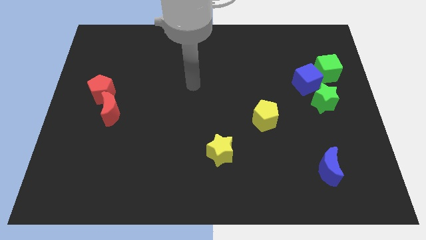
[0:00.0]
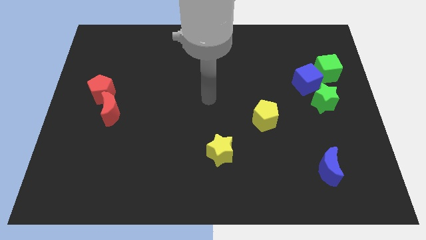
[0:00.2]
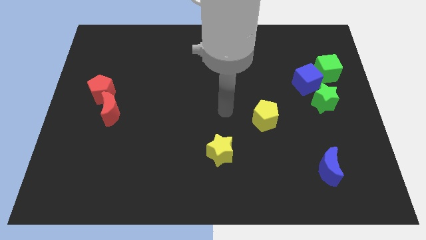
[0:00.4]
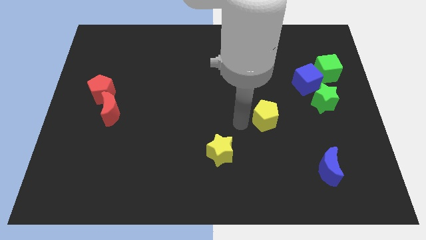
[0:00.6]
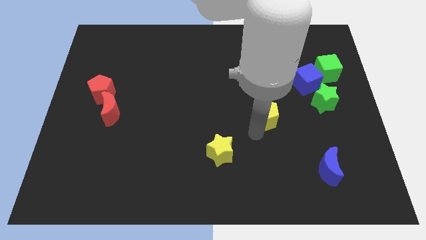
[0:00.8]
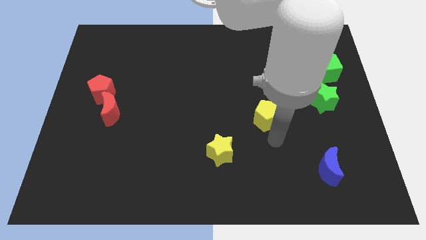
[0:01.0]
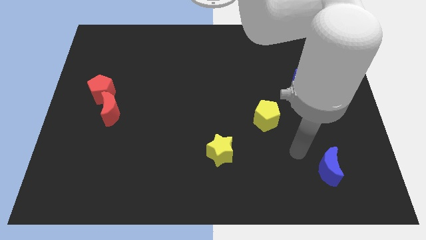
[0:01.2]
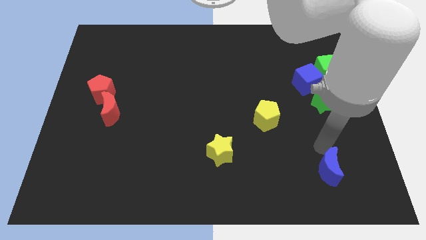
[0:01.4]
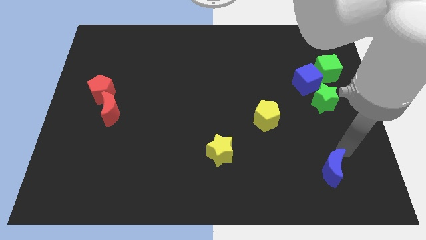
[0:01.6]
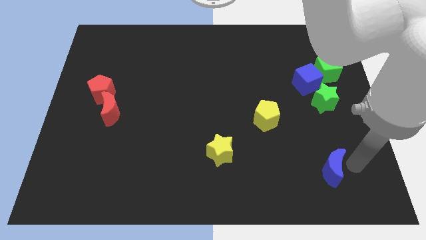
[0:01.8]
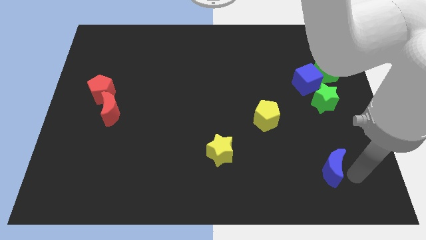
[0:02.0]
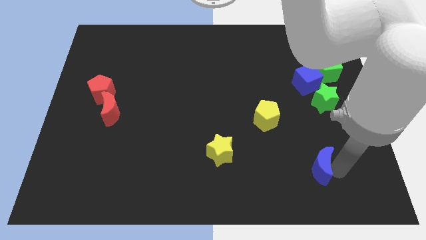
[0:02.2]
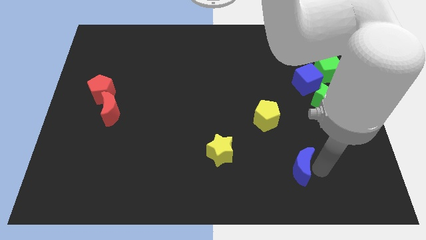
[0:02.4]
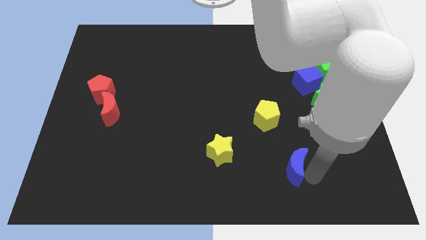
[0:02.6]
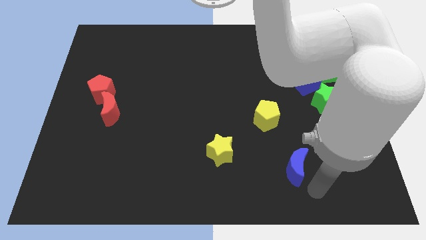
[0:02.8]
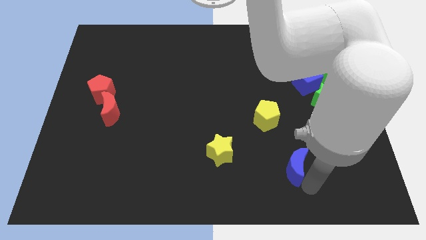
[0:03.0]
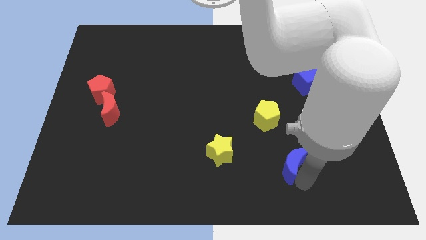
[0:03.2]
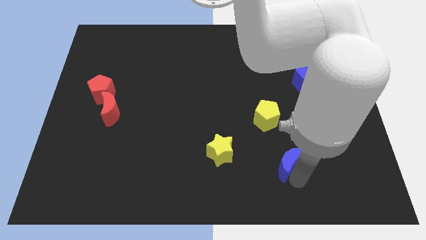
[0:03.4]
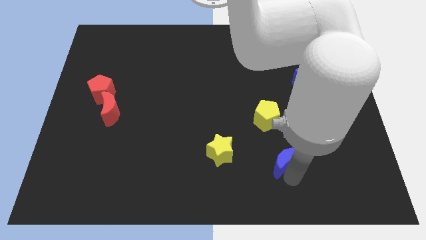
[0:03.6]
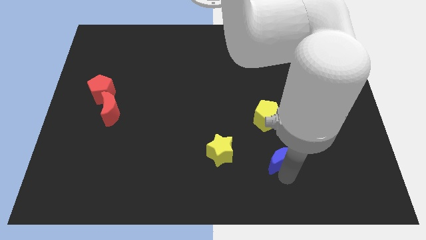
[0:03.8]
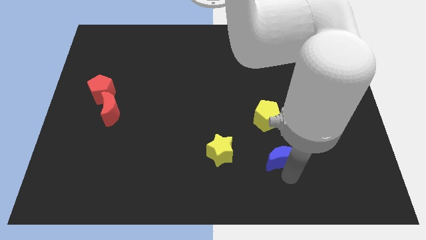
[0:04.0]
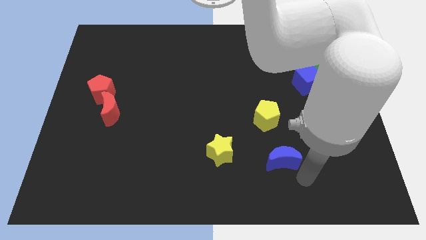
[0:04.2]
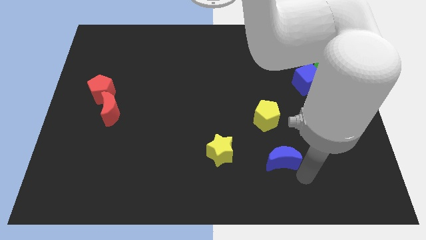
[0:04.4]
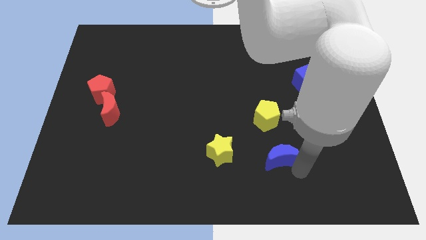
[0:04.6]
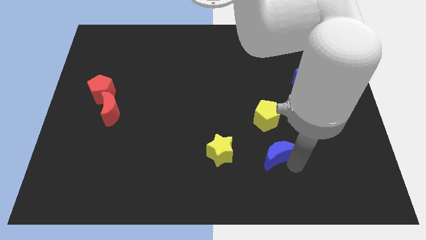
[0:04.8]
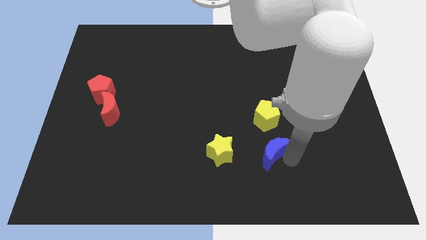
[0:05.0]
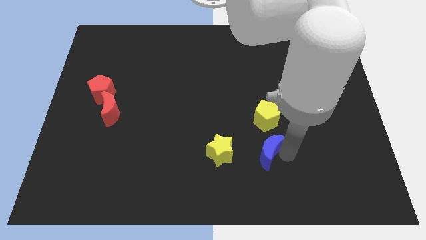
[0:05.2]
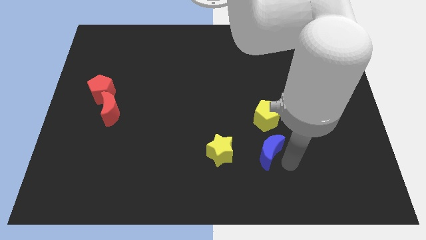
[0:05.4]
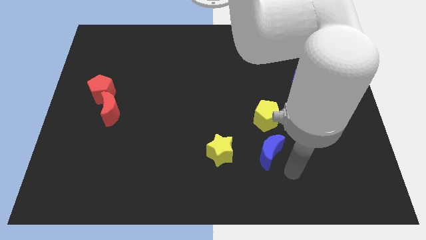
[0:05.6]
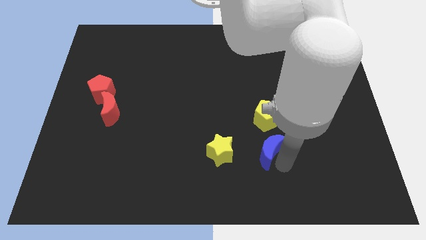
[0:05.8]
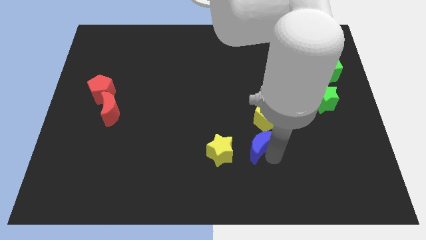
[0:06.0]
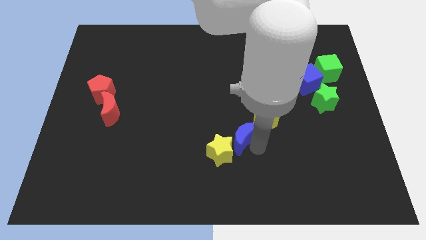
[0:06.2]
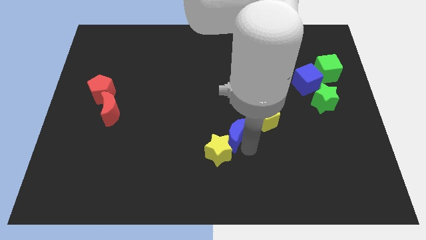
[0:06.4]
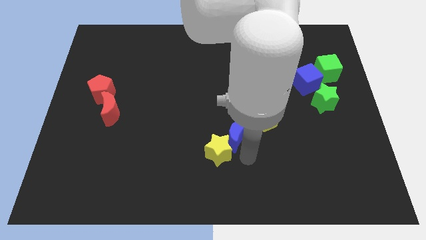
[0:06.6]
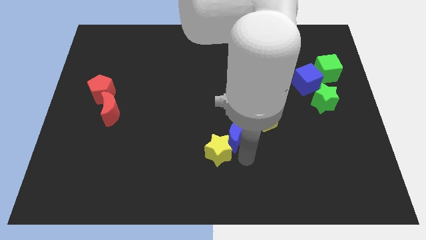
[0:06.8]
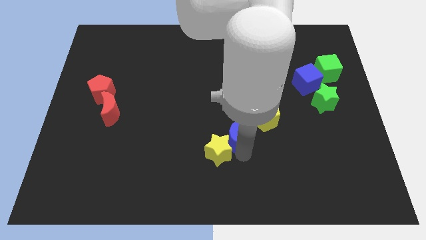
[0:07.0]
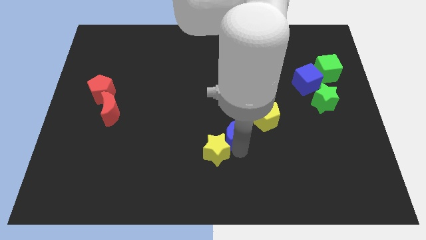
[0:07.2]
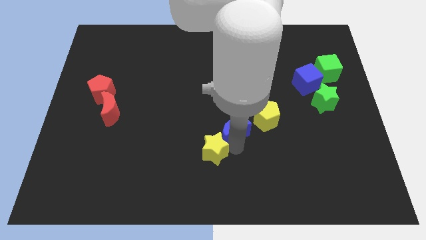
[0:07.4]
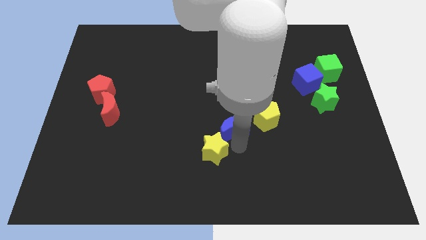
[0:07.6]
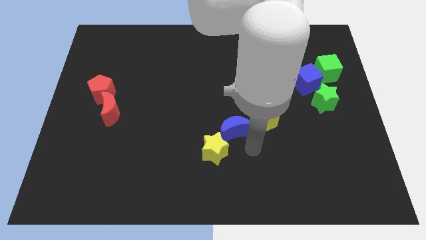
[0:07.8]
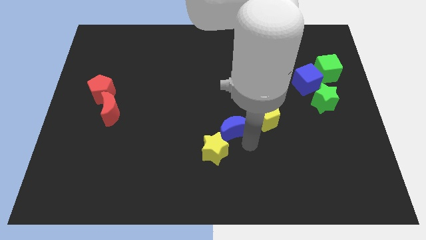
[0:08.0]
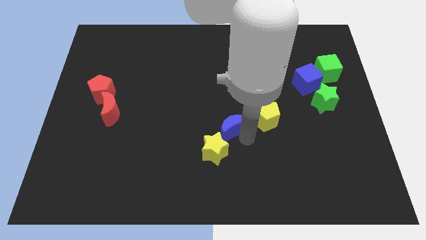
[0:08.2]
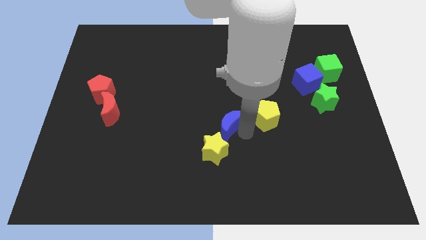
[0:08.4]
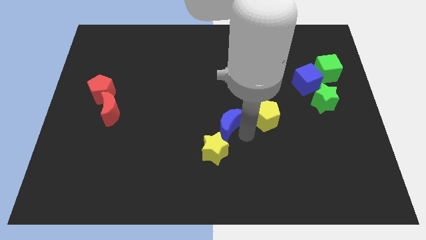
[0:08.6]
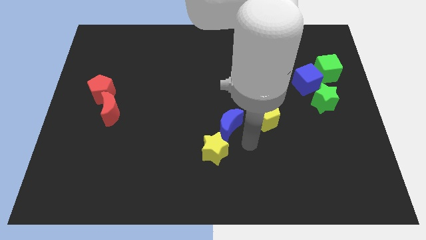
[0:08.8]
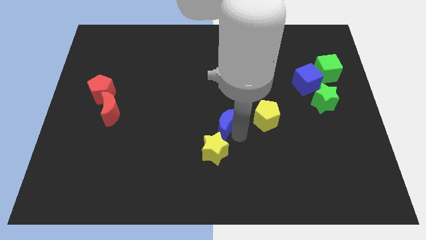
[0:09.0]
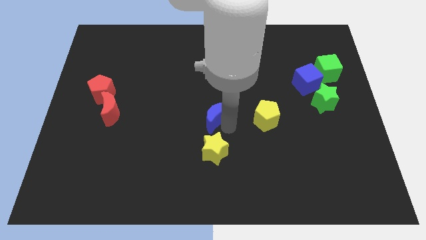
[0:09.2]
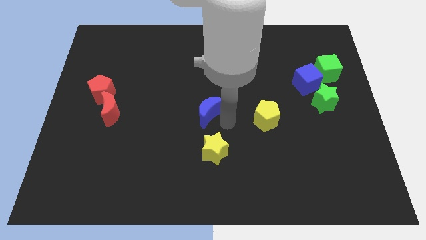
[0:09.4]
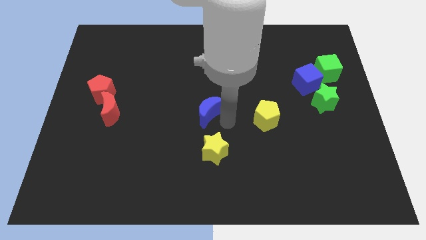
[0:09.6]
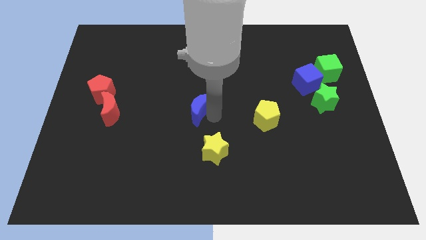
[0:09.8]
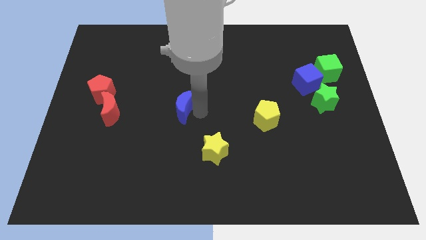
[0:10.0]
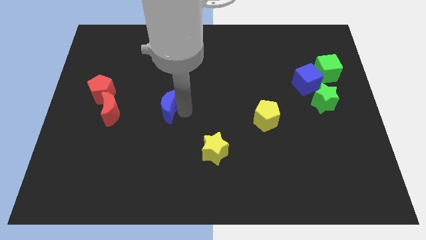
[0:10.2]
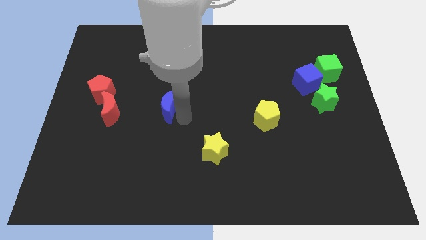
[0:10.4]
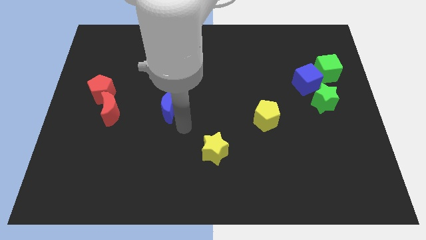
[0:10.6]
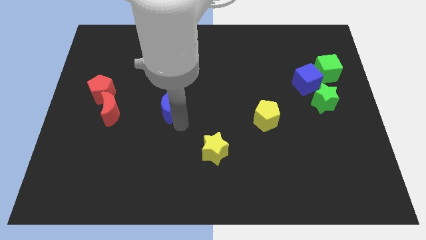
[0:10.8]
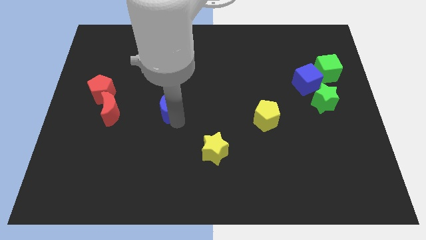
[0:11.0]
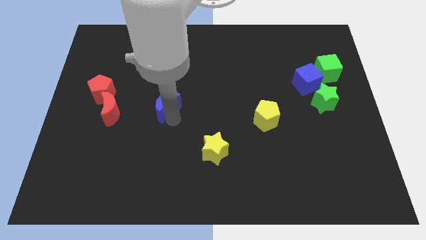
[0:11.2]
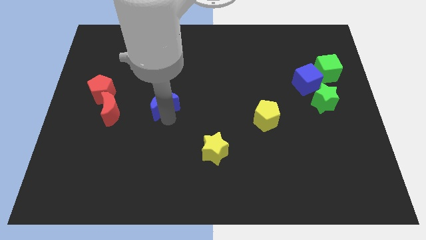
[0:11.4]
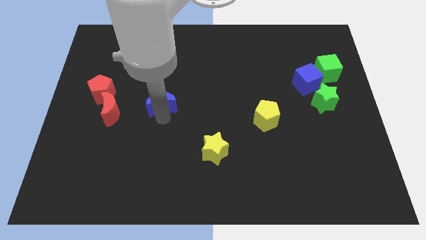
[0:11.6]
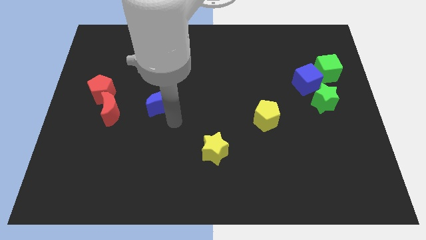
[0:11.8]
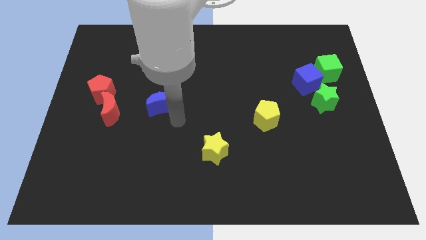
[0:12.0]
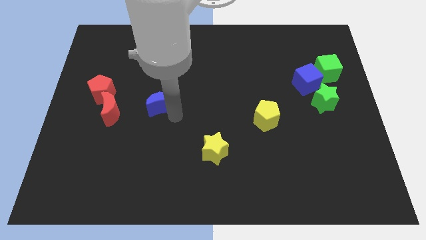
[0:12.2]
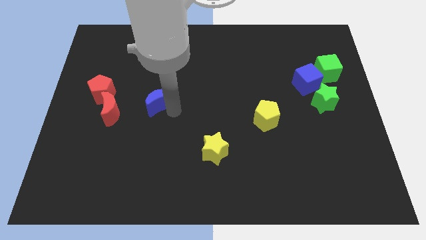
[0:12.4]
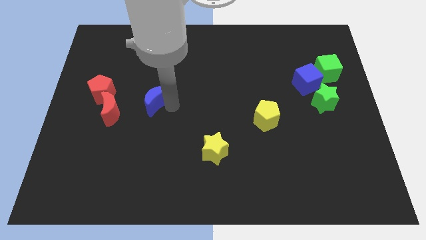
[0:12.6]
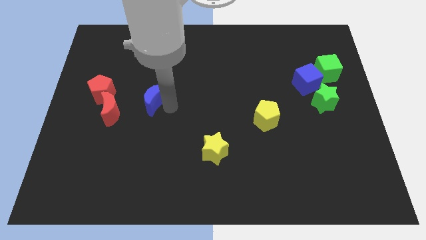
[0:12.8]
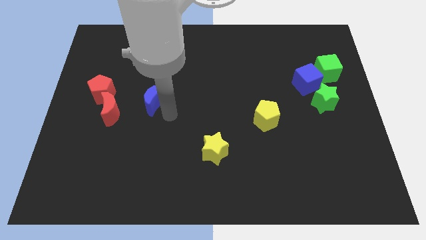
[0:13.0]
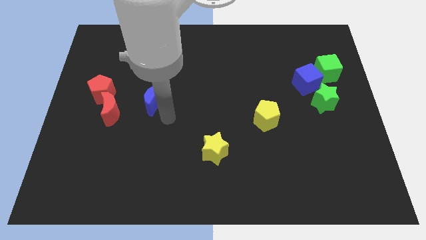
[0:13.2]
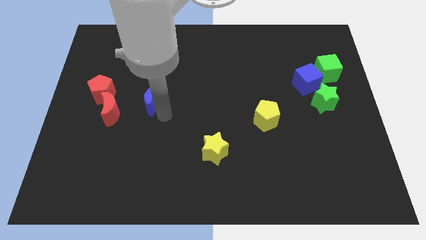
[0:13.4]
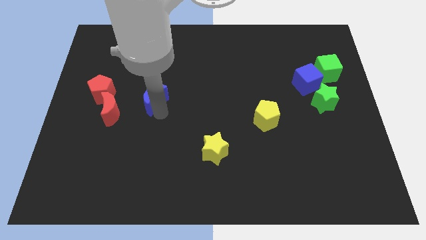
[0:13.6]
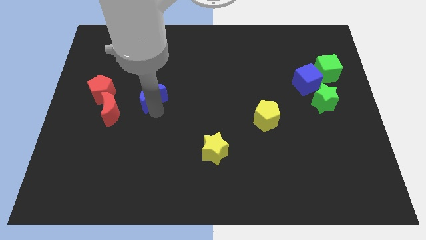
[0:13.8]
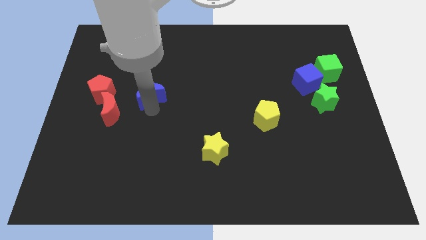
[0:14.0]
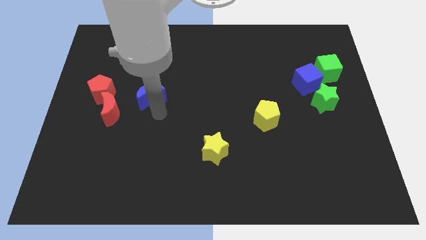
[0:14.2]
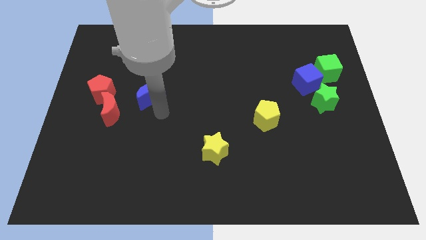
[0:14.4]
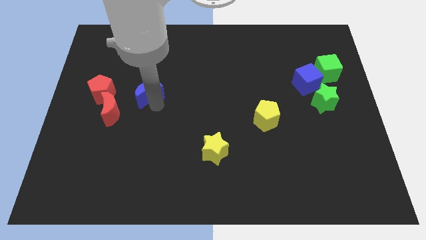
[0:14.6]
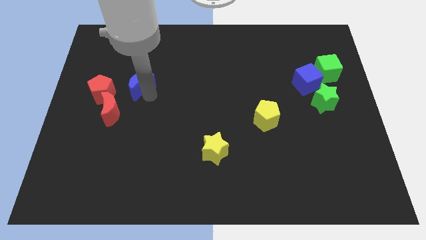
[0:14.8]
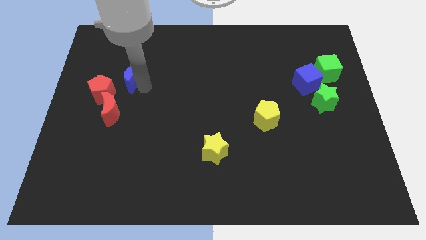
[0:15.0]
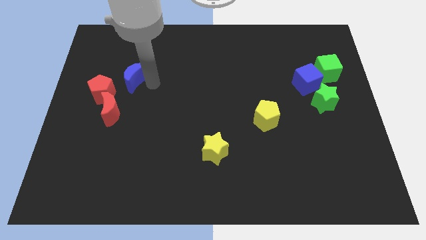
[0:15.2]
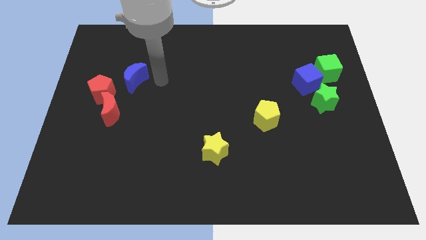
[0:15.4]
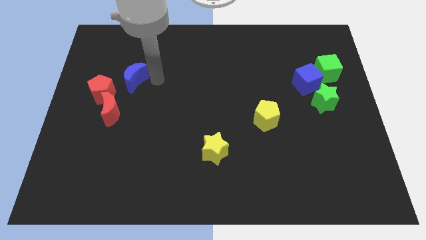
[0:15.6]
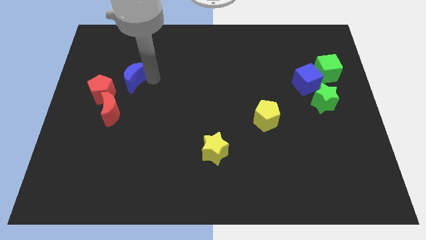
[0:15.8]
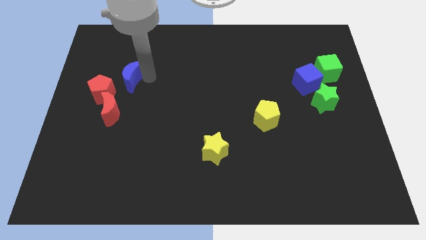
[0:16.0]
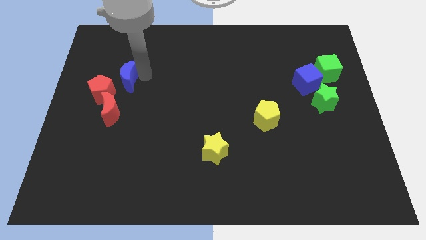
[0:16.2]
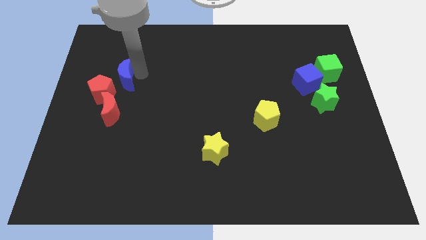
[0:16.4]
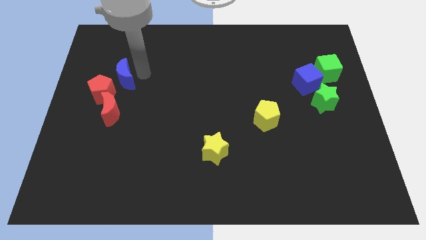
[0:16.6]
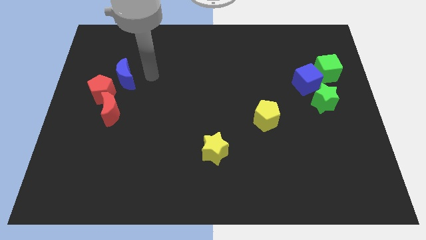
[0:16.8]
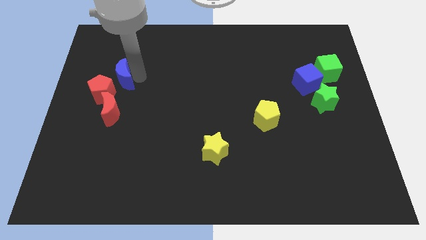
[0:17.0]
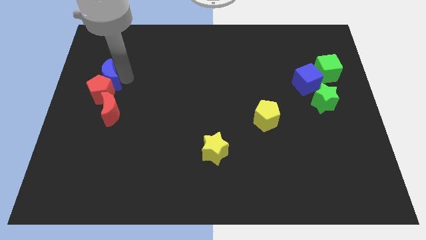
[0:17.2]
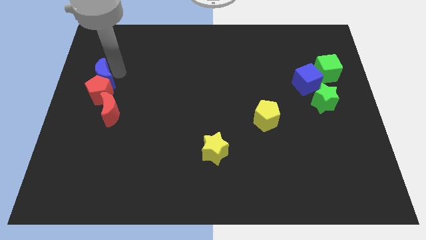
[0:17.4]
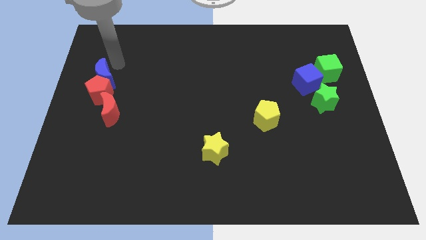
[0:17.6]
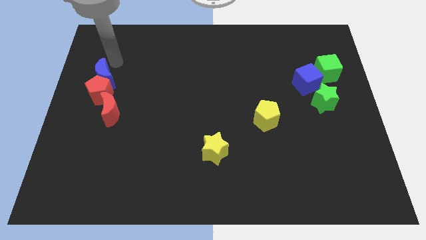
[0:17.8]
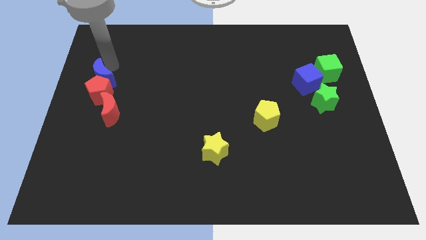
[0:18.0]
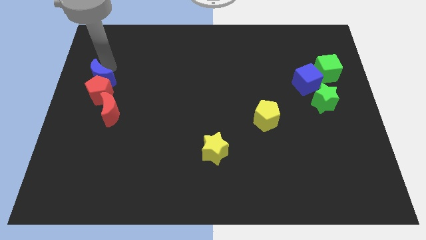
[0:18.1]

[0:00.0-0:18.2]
slide the blue moon to the top left of the red moon
